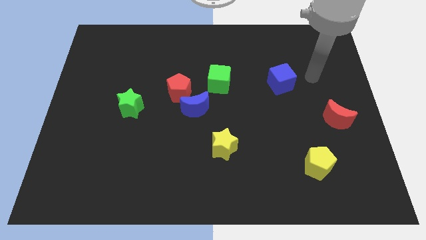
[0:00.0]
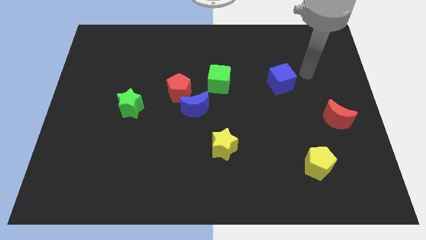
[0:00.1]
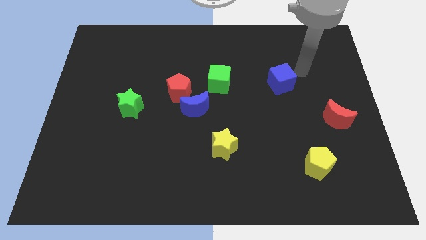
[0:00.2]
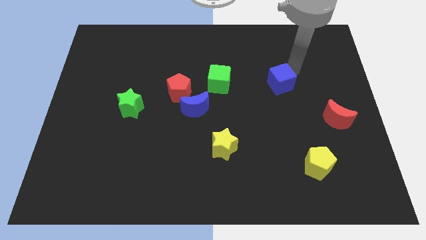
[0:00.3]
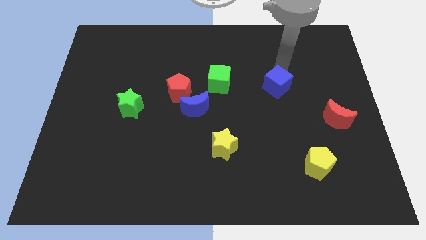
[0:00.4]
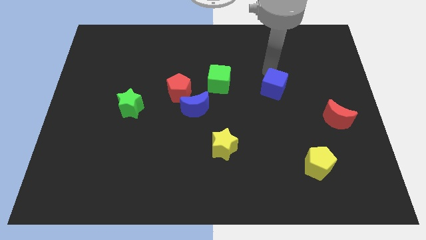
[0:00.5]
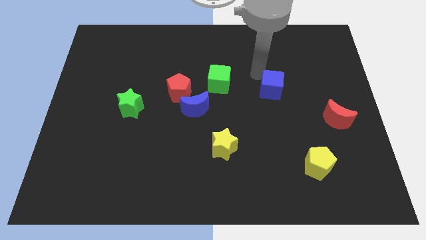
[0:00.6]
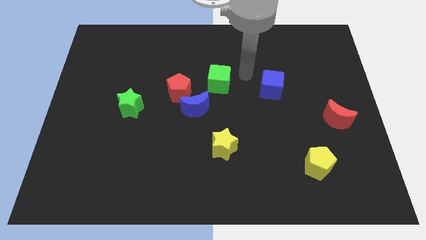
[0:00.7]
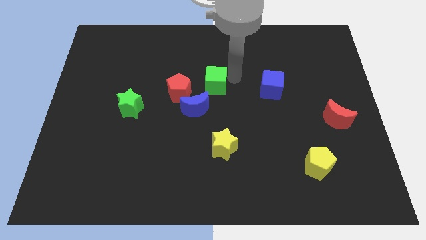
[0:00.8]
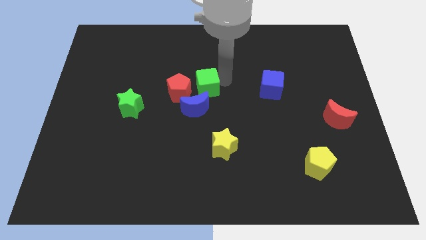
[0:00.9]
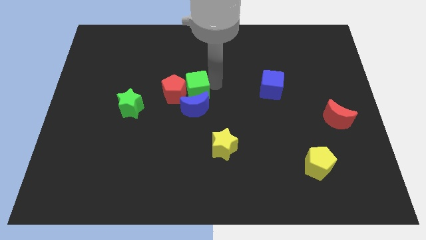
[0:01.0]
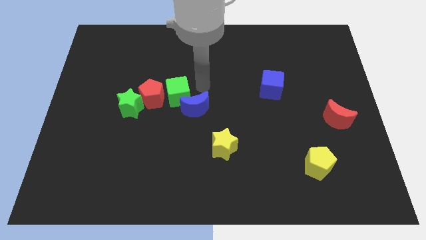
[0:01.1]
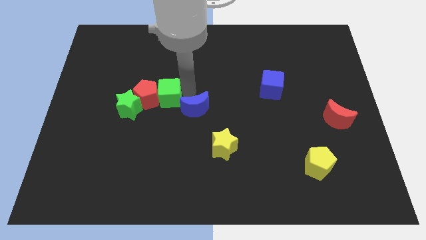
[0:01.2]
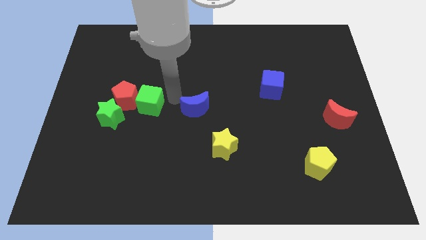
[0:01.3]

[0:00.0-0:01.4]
pull the blue moon apart from the red pentagon and green cube

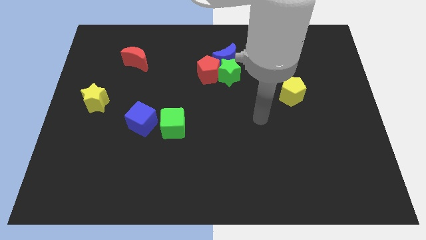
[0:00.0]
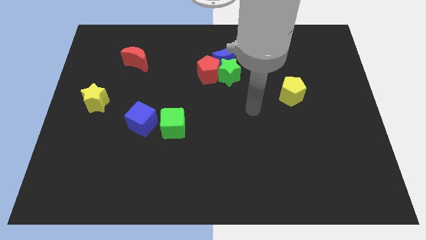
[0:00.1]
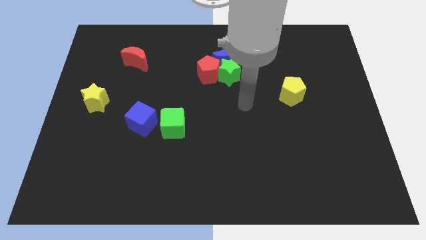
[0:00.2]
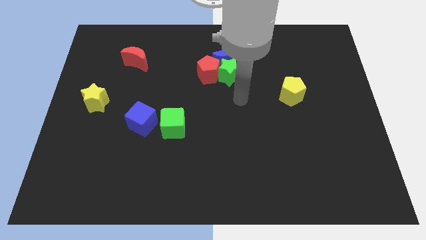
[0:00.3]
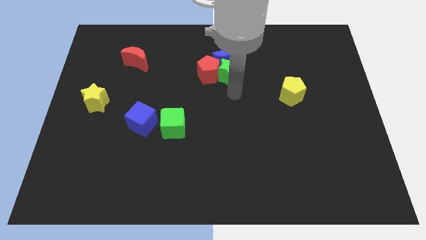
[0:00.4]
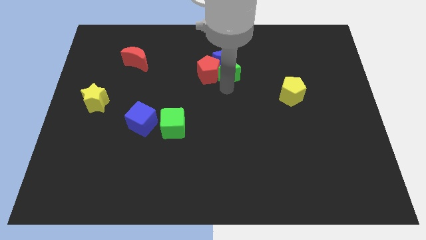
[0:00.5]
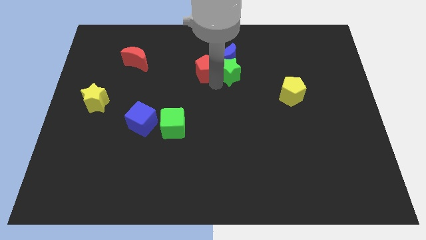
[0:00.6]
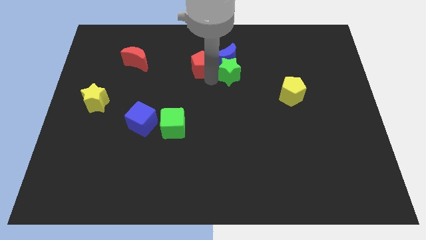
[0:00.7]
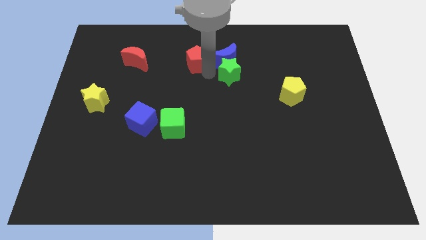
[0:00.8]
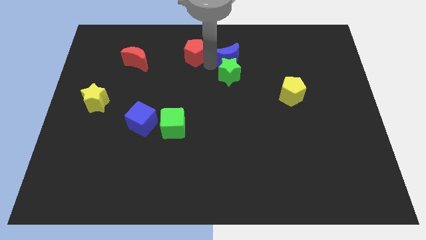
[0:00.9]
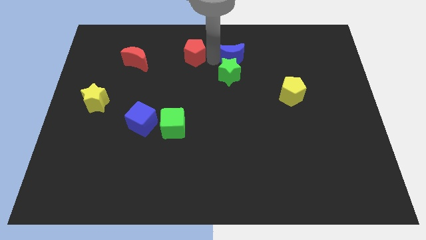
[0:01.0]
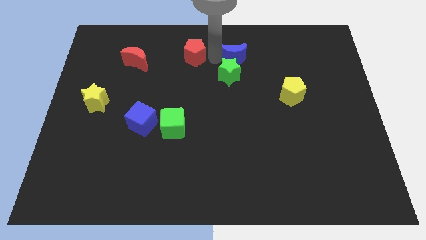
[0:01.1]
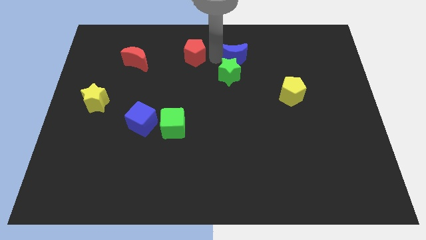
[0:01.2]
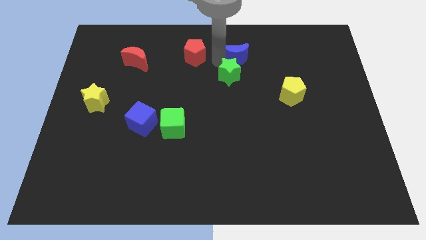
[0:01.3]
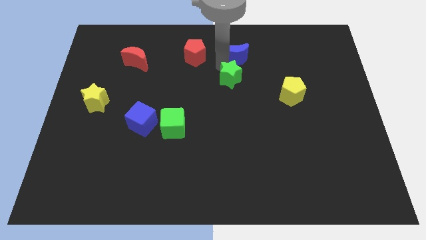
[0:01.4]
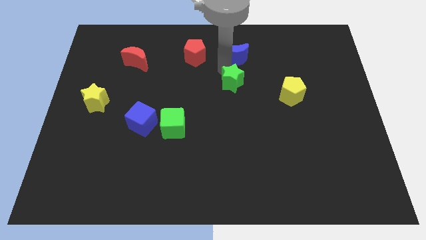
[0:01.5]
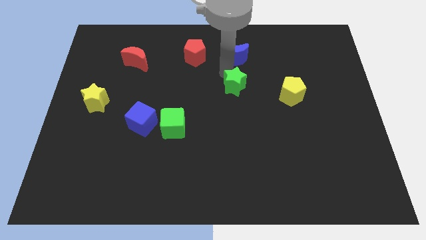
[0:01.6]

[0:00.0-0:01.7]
pull the green star apart from the blue moon and red pentagon

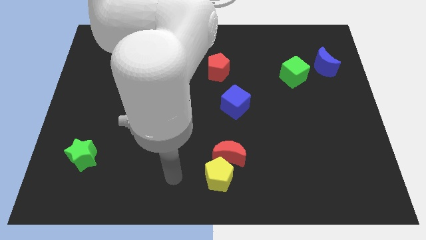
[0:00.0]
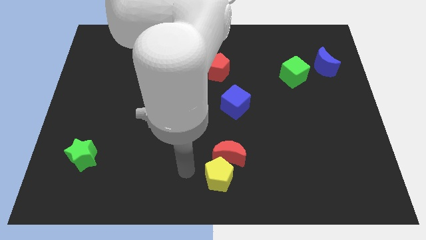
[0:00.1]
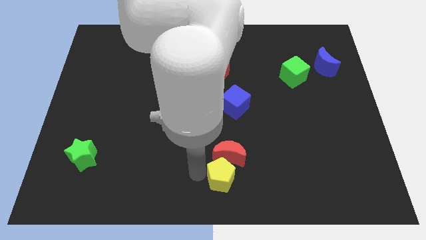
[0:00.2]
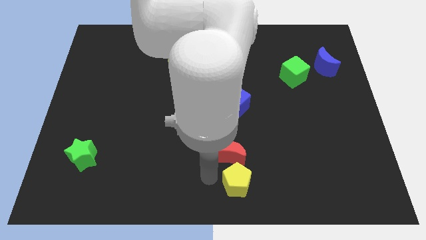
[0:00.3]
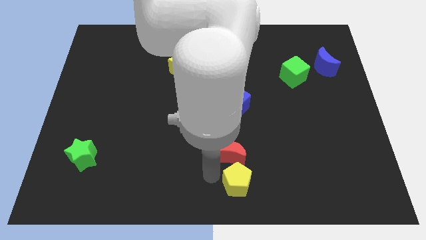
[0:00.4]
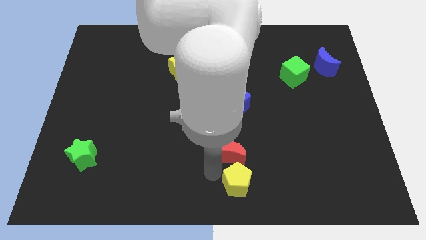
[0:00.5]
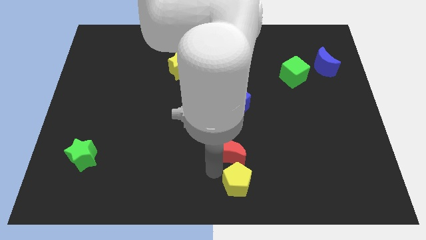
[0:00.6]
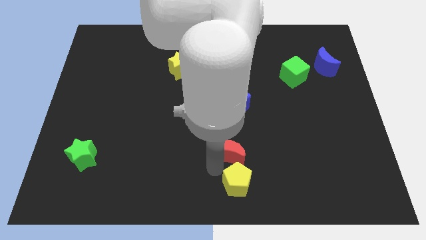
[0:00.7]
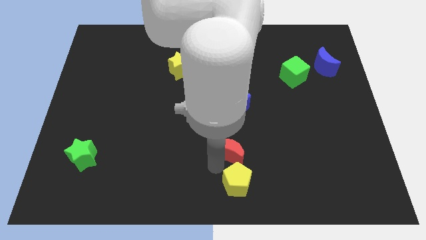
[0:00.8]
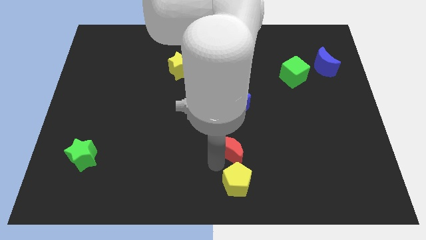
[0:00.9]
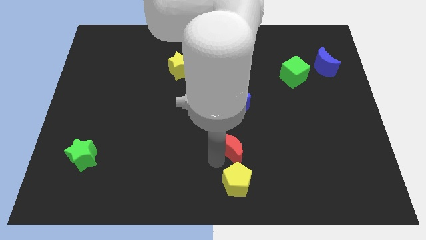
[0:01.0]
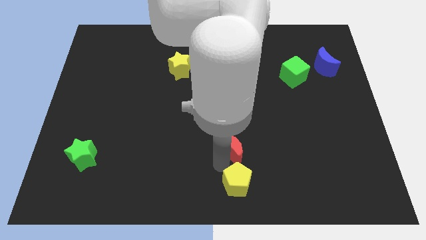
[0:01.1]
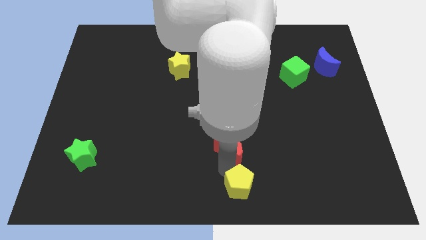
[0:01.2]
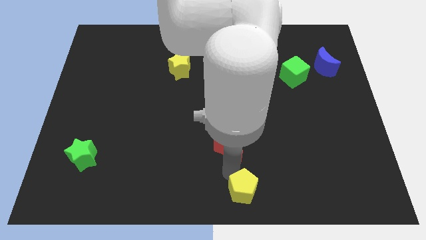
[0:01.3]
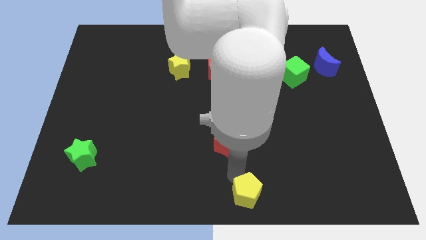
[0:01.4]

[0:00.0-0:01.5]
pull the red moon apart from the yellow pentagon

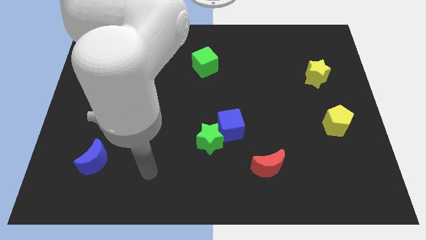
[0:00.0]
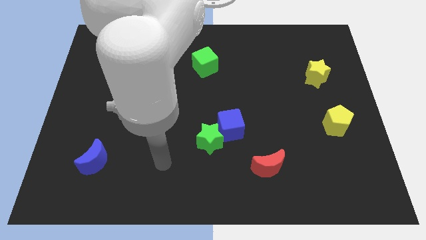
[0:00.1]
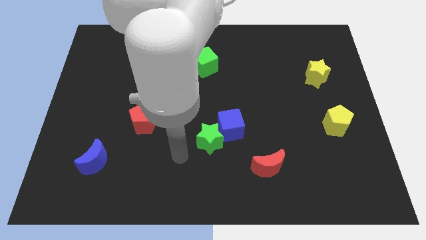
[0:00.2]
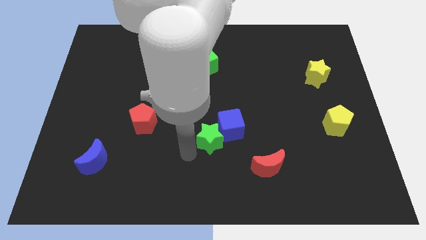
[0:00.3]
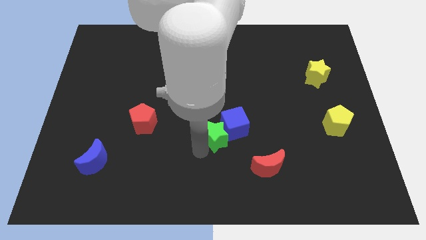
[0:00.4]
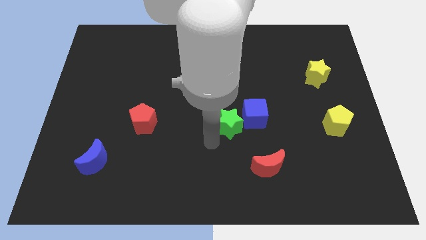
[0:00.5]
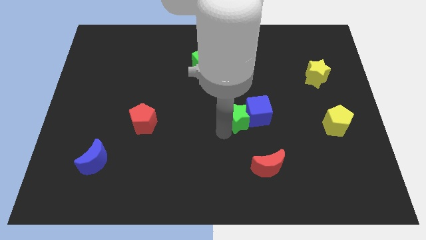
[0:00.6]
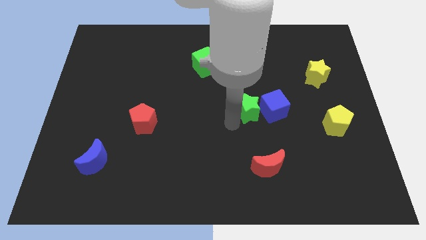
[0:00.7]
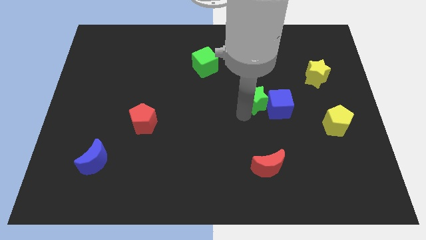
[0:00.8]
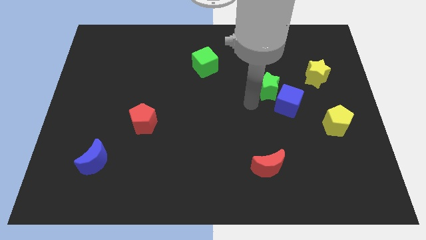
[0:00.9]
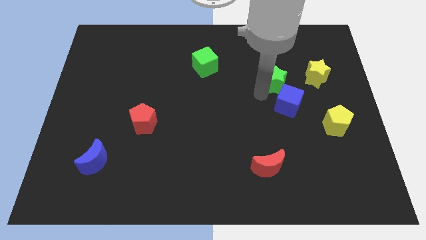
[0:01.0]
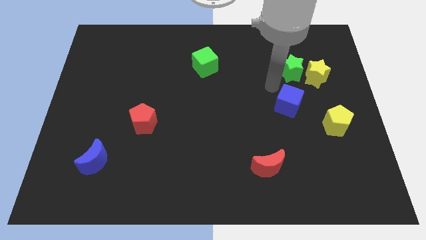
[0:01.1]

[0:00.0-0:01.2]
separate the blue cube from the green star

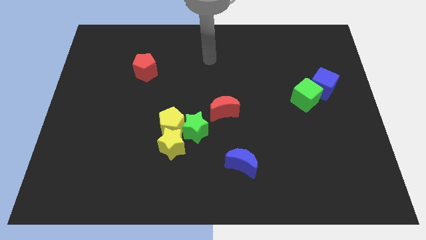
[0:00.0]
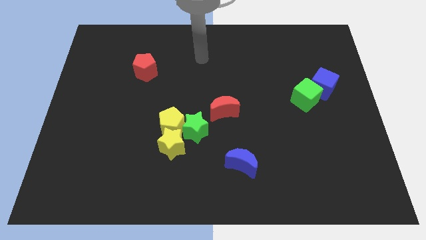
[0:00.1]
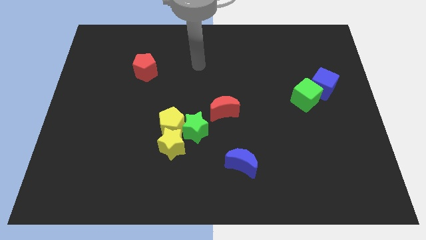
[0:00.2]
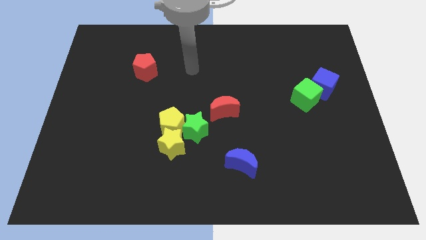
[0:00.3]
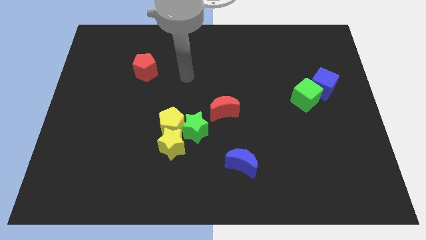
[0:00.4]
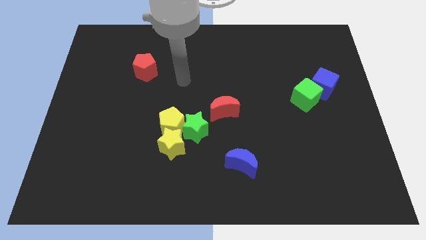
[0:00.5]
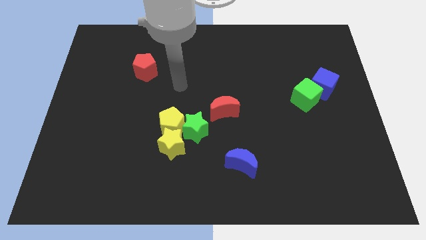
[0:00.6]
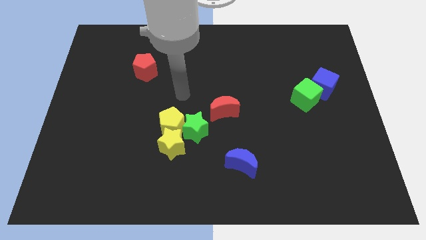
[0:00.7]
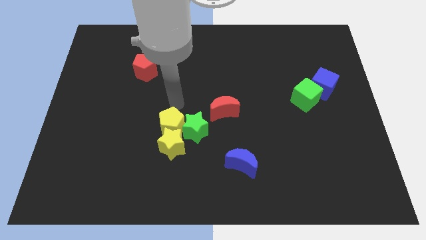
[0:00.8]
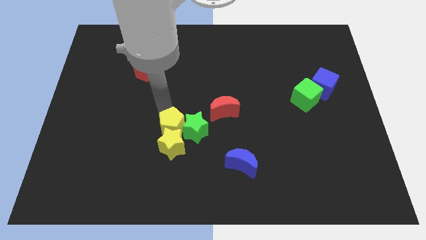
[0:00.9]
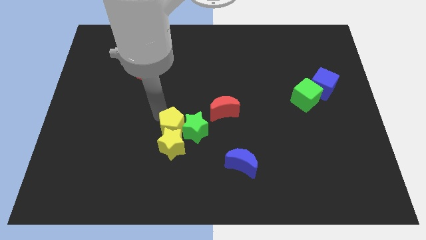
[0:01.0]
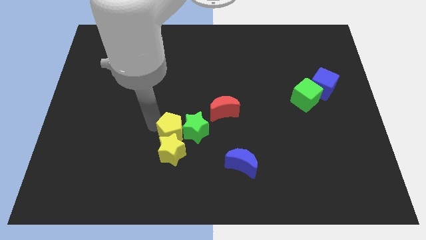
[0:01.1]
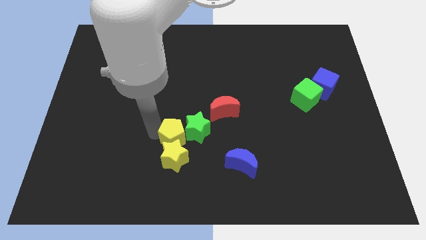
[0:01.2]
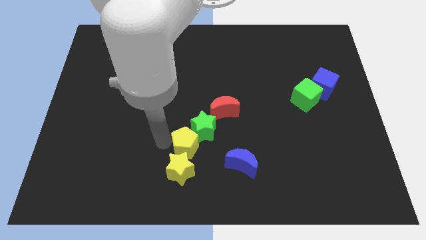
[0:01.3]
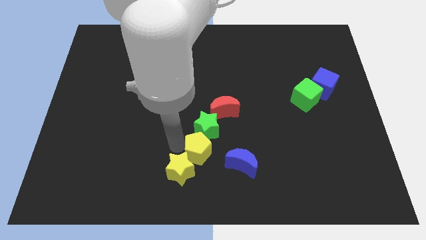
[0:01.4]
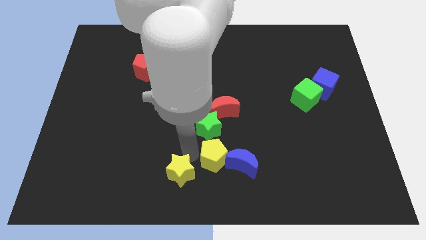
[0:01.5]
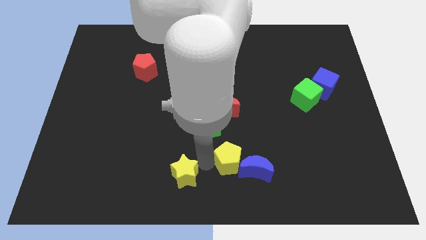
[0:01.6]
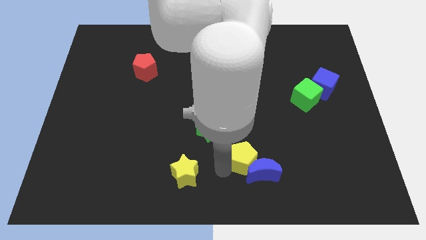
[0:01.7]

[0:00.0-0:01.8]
move the yellow pentagon away from the yellow star and green star

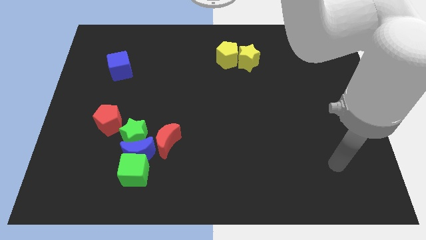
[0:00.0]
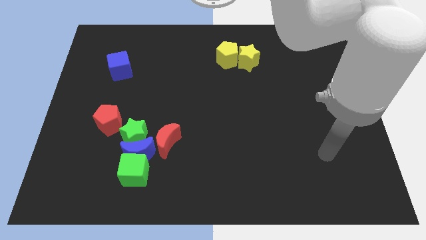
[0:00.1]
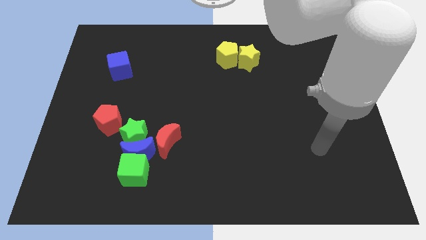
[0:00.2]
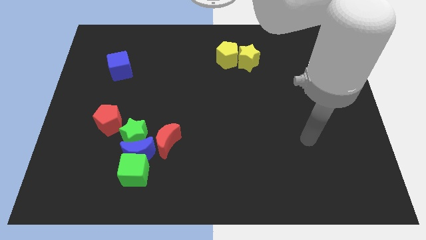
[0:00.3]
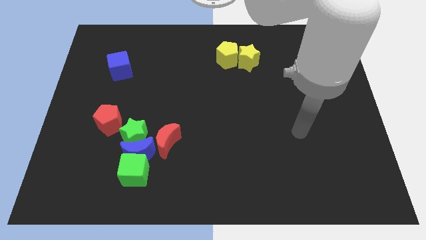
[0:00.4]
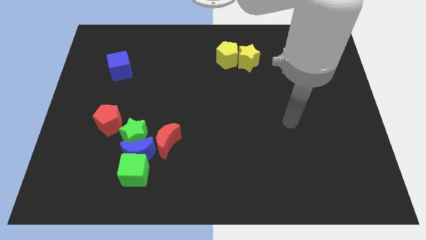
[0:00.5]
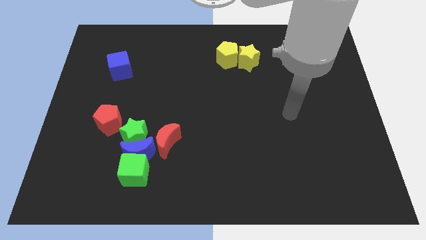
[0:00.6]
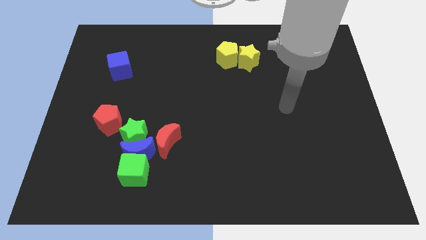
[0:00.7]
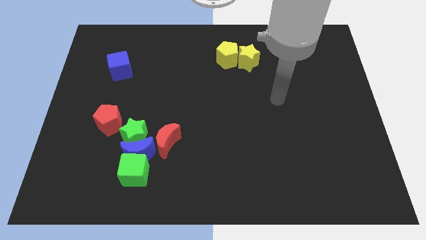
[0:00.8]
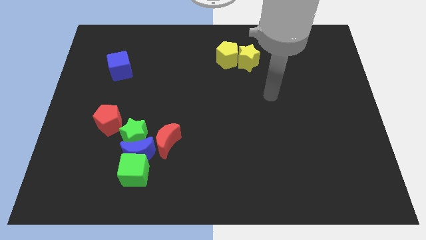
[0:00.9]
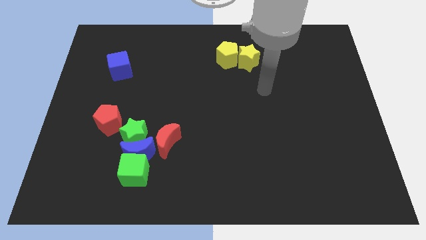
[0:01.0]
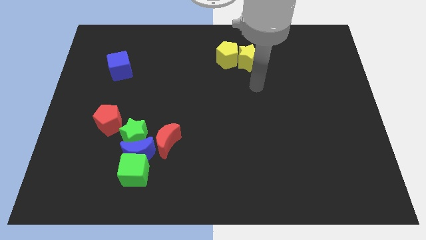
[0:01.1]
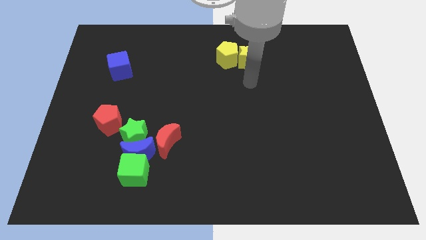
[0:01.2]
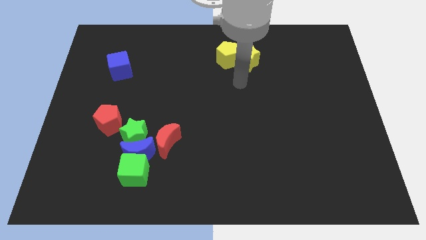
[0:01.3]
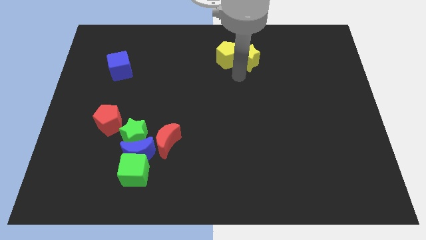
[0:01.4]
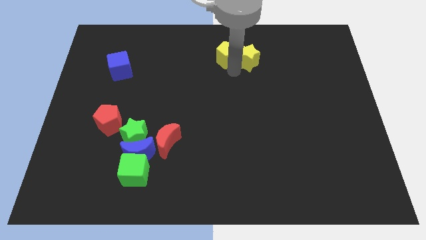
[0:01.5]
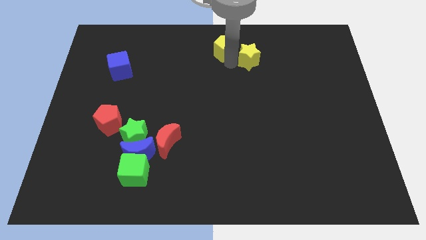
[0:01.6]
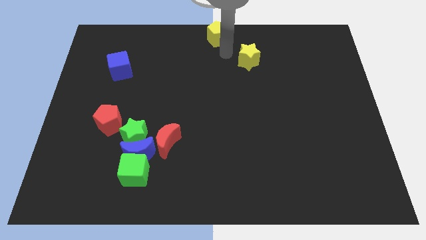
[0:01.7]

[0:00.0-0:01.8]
move the yellow star away from the yellow pentagon
